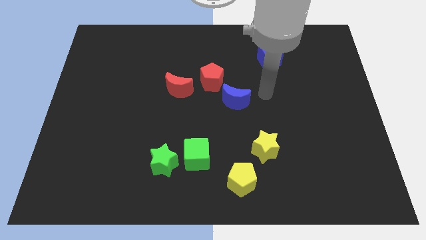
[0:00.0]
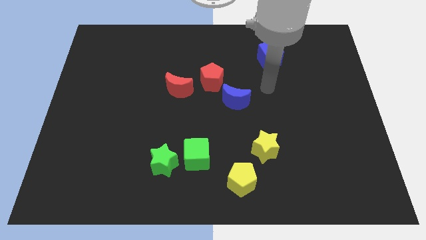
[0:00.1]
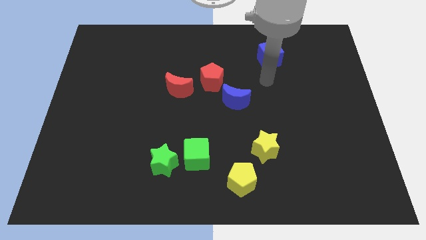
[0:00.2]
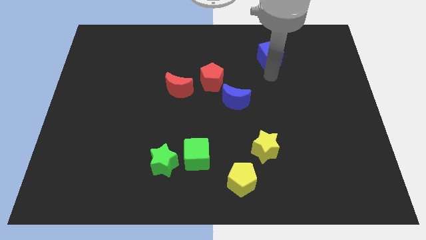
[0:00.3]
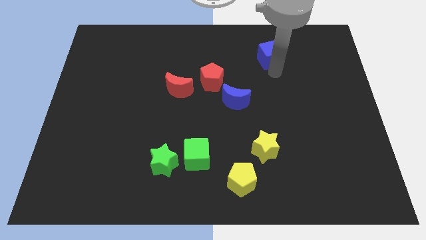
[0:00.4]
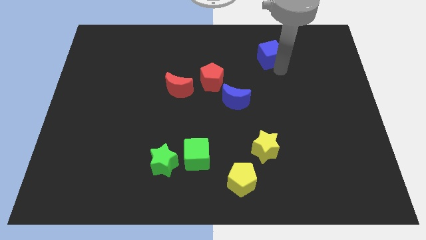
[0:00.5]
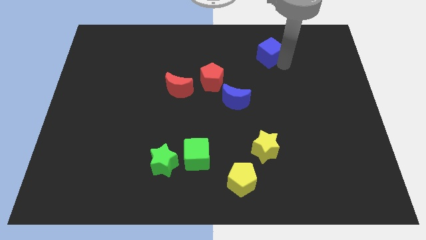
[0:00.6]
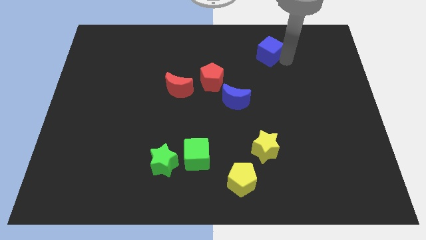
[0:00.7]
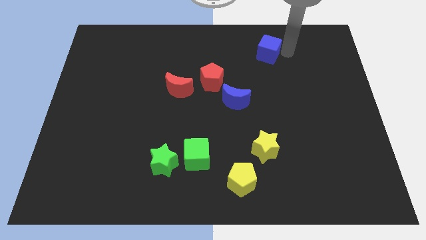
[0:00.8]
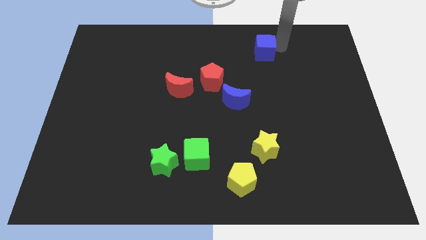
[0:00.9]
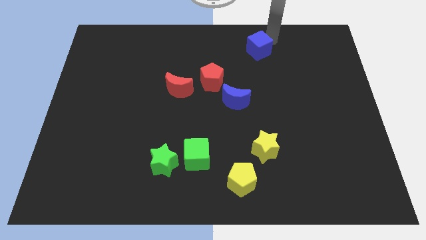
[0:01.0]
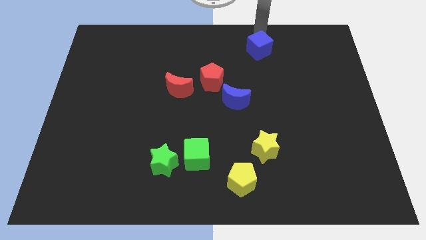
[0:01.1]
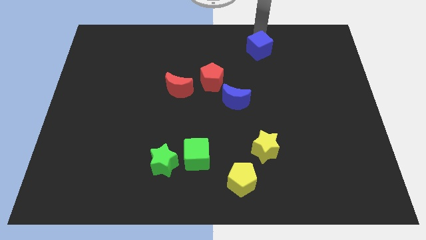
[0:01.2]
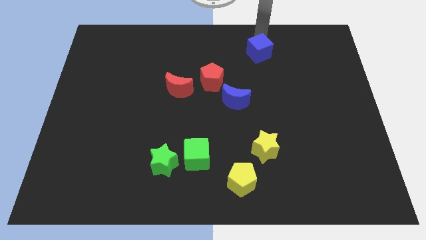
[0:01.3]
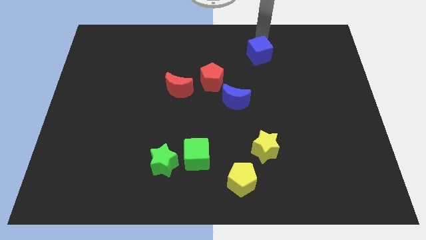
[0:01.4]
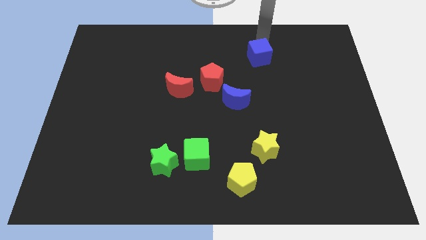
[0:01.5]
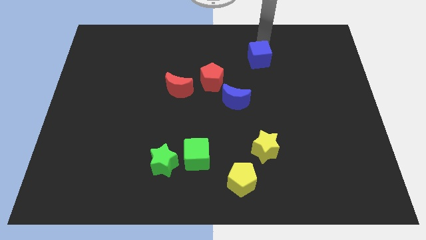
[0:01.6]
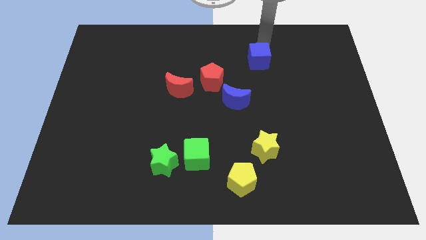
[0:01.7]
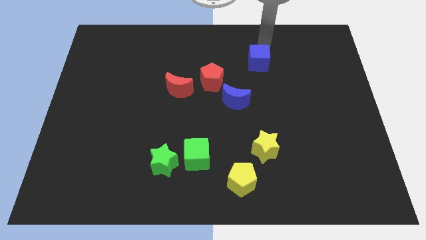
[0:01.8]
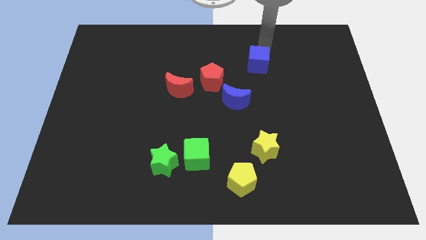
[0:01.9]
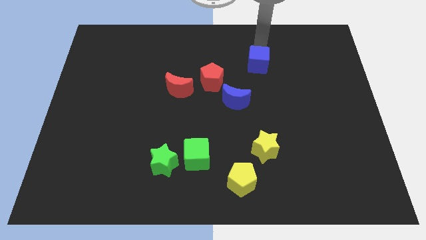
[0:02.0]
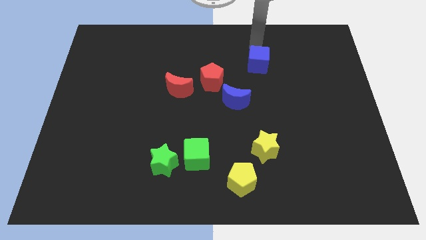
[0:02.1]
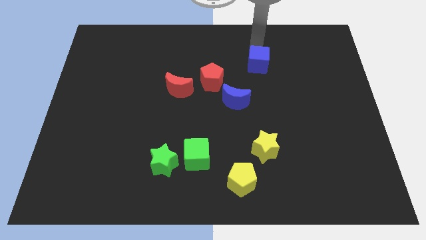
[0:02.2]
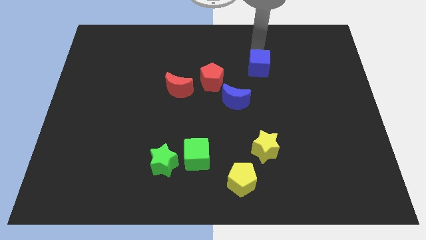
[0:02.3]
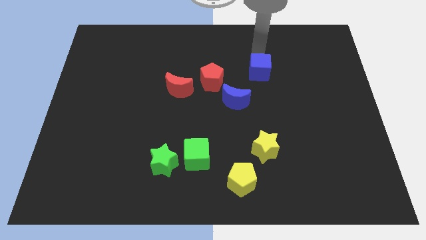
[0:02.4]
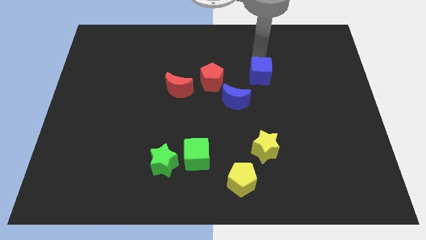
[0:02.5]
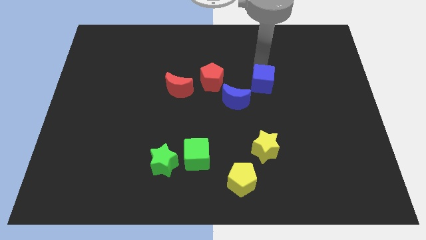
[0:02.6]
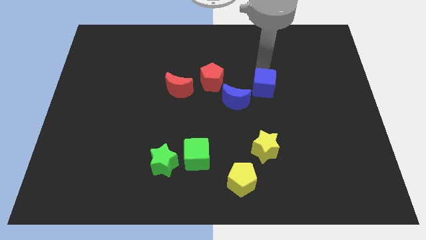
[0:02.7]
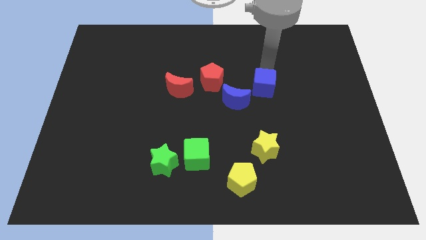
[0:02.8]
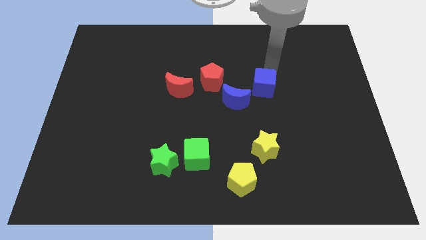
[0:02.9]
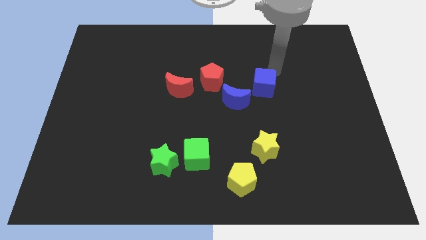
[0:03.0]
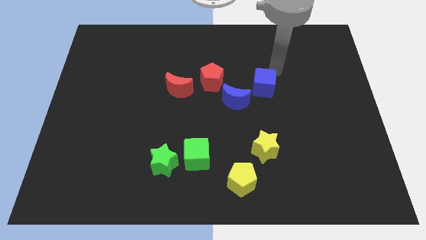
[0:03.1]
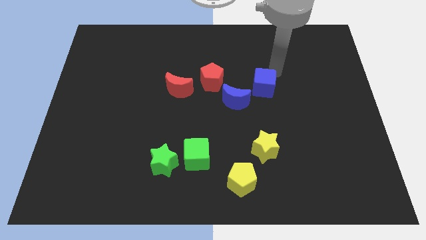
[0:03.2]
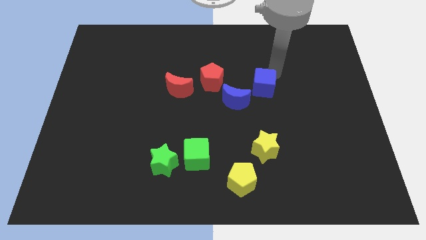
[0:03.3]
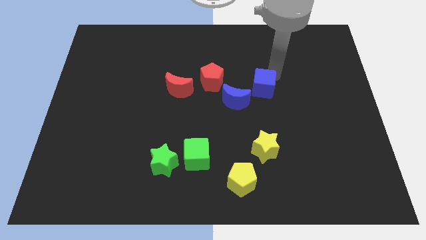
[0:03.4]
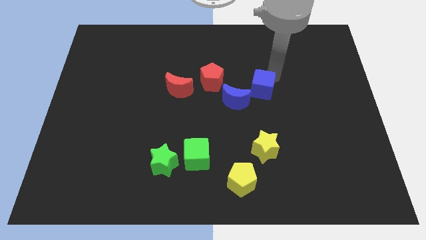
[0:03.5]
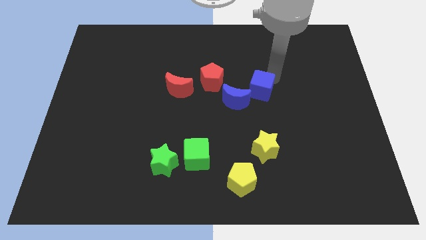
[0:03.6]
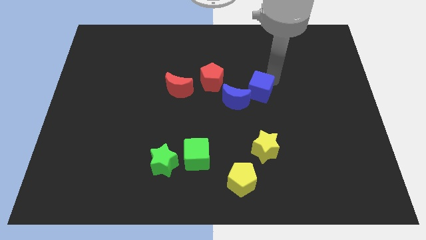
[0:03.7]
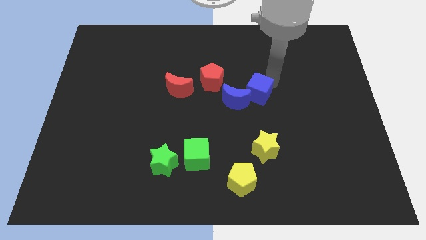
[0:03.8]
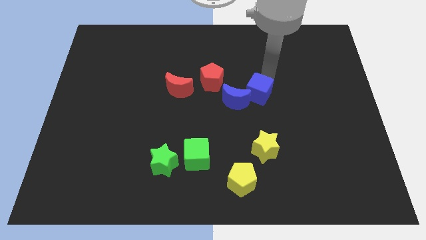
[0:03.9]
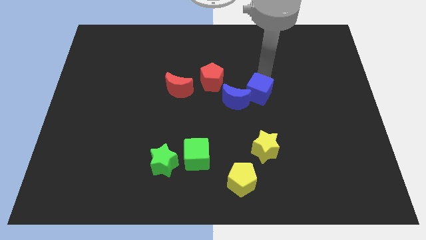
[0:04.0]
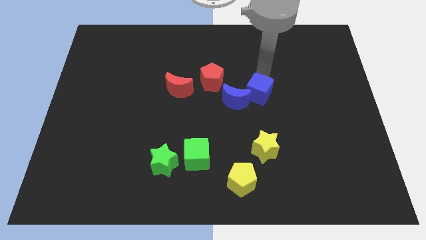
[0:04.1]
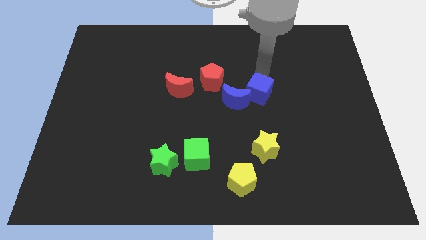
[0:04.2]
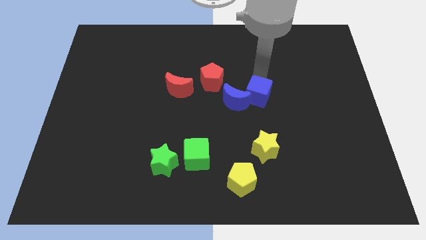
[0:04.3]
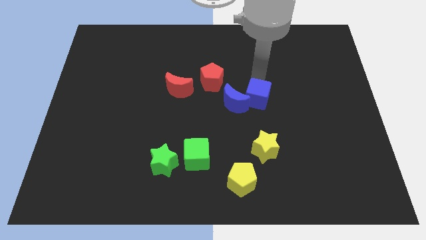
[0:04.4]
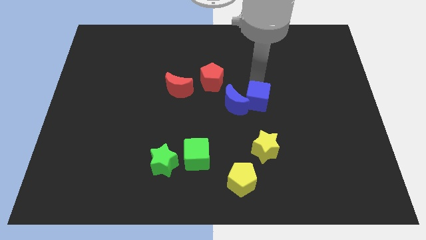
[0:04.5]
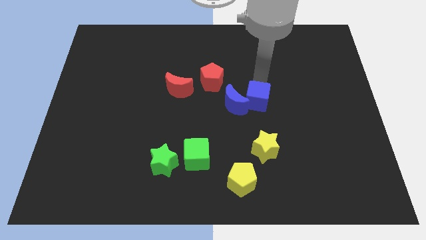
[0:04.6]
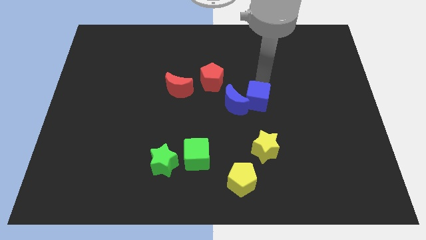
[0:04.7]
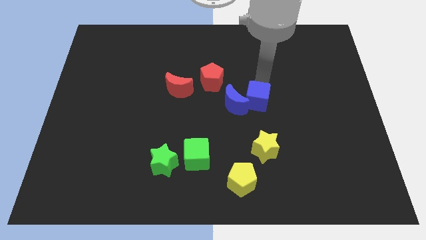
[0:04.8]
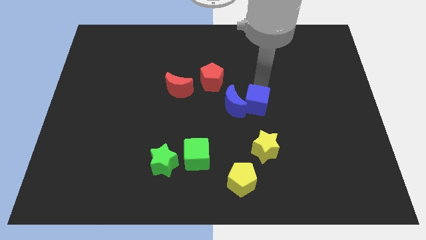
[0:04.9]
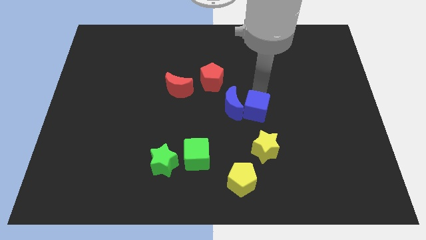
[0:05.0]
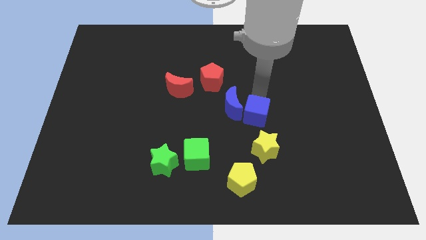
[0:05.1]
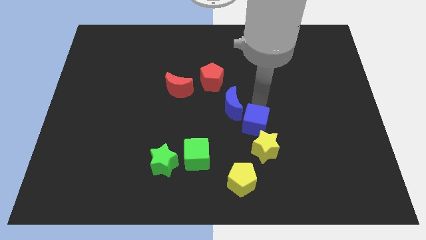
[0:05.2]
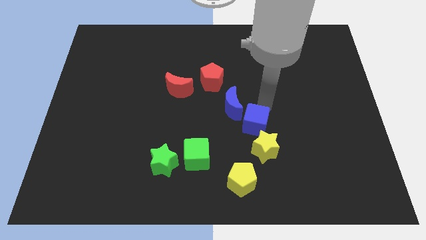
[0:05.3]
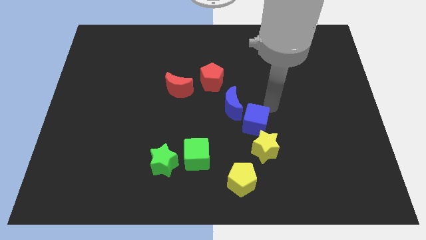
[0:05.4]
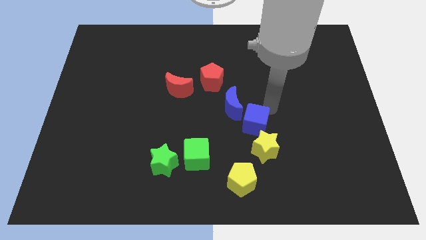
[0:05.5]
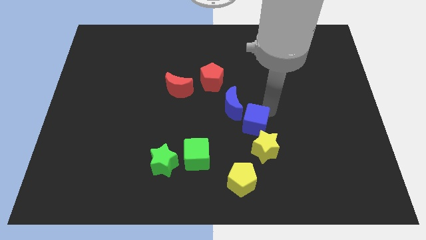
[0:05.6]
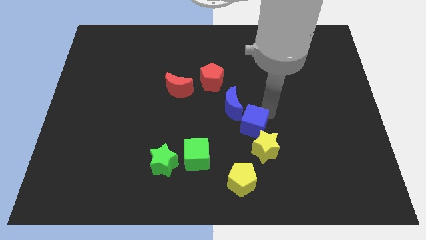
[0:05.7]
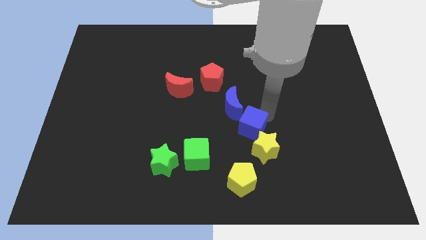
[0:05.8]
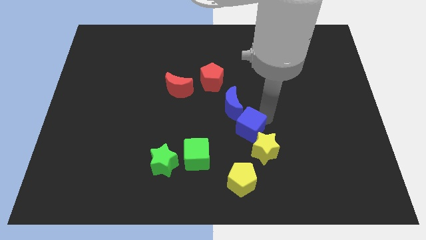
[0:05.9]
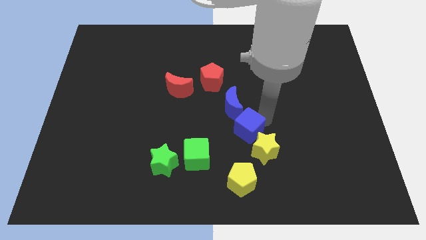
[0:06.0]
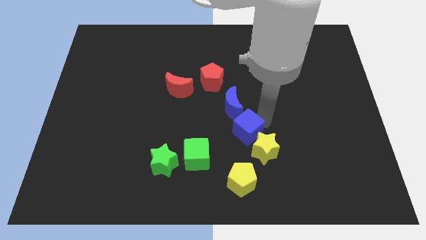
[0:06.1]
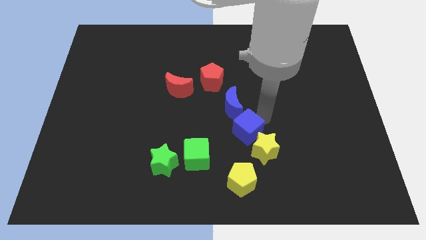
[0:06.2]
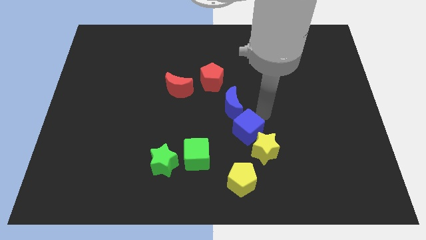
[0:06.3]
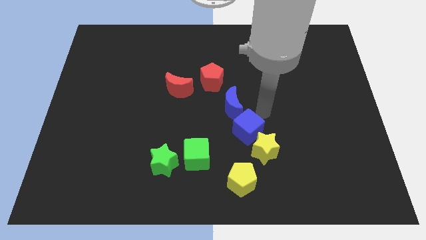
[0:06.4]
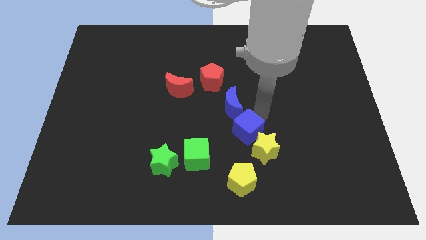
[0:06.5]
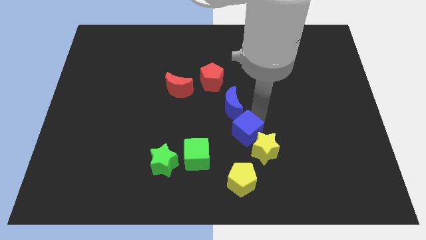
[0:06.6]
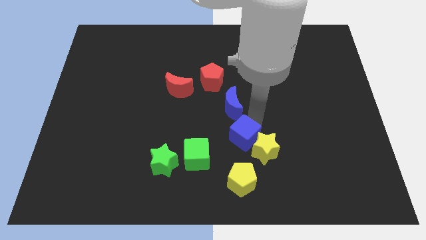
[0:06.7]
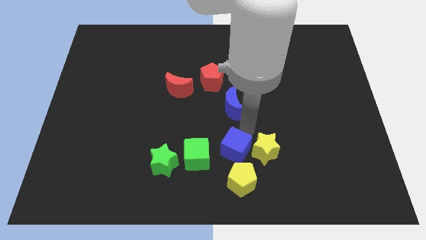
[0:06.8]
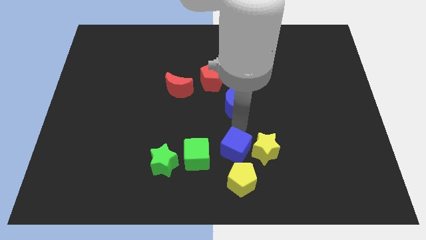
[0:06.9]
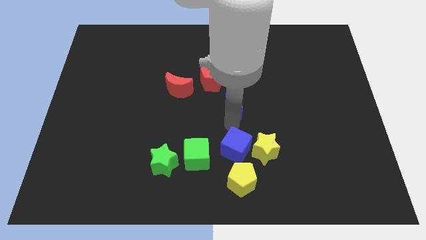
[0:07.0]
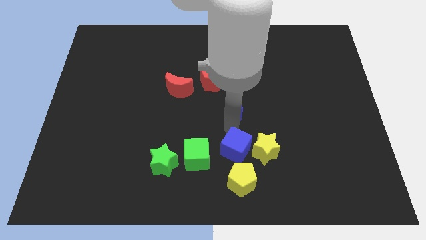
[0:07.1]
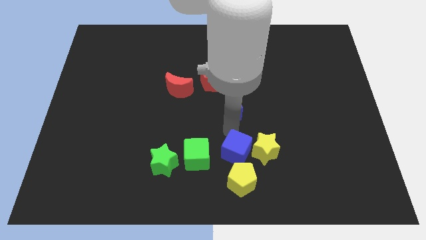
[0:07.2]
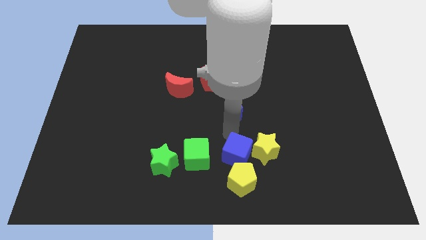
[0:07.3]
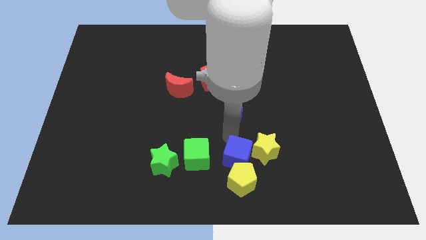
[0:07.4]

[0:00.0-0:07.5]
push the blue cube to the yellow pentagon

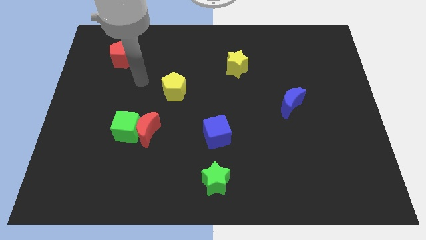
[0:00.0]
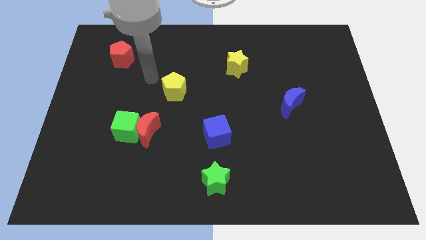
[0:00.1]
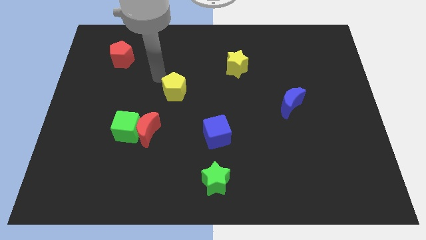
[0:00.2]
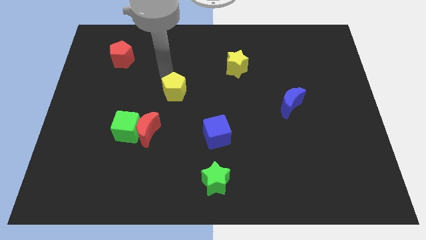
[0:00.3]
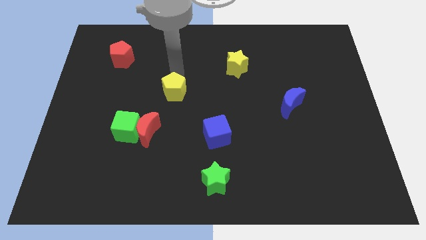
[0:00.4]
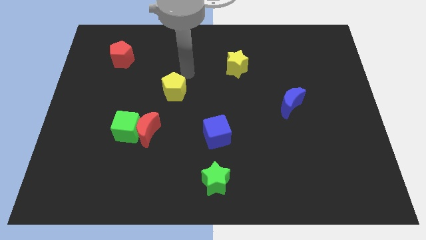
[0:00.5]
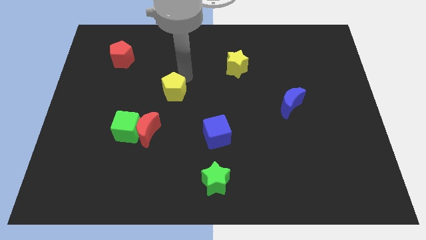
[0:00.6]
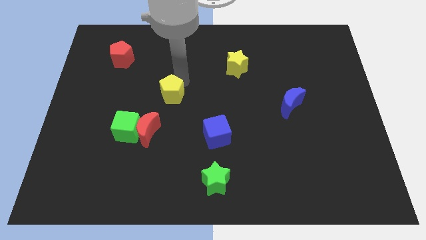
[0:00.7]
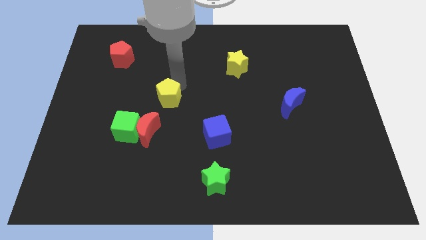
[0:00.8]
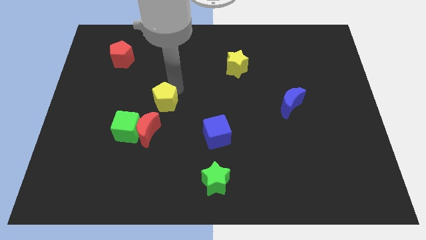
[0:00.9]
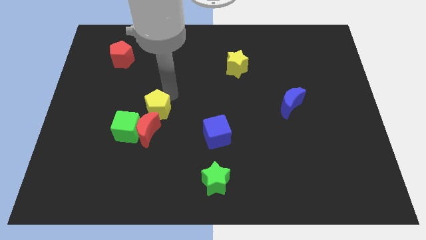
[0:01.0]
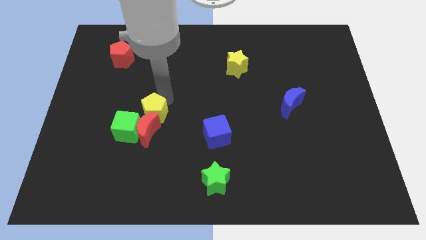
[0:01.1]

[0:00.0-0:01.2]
push the yellow pentagon close to the red moon
